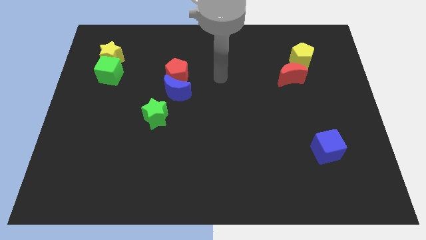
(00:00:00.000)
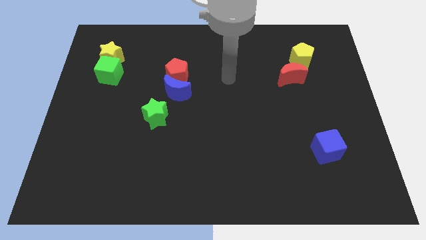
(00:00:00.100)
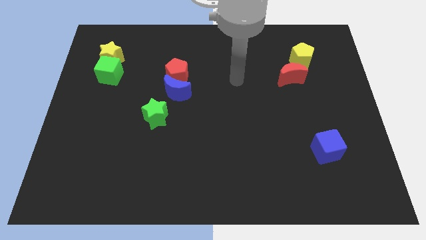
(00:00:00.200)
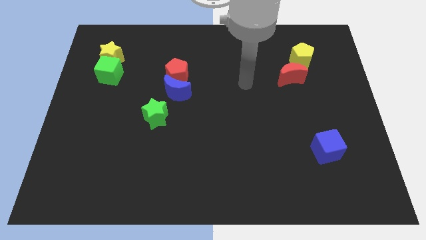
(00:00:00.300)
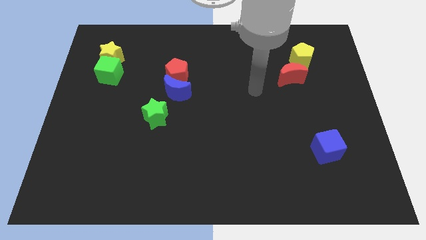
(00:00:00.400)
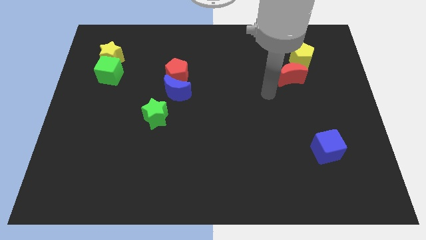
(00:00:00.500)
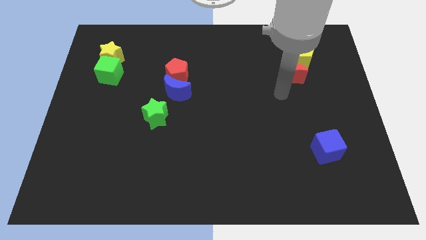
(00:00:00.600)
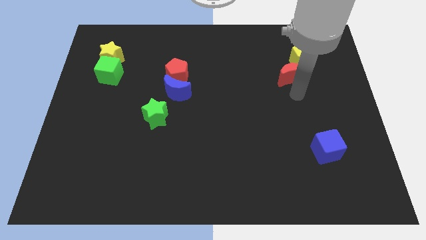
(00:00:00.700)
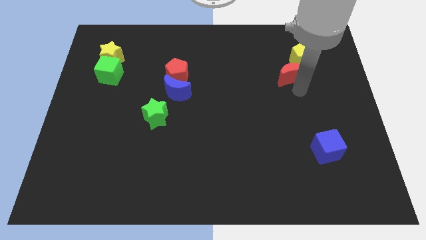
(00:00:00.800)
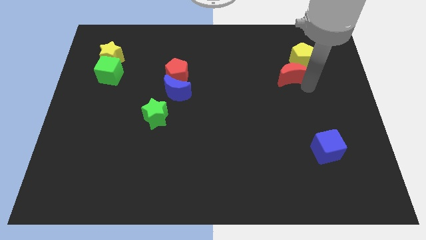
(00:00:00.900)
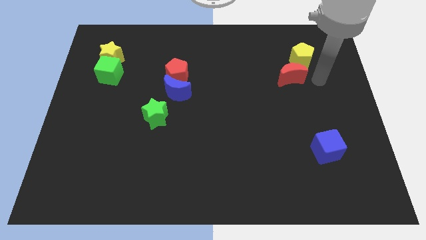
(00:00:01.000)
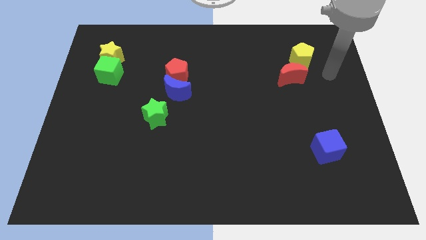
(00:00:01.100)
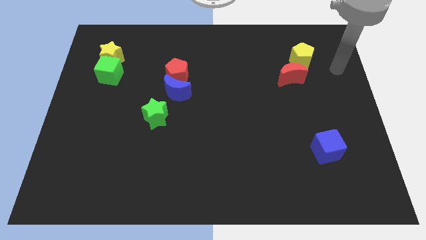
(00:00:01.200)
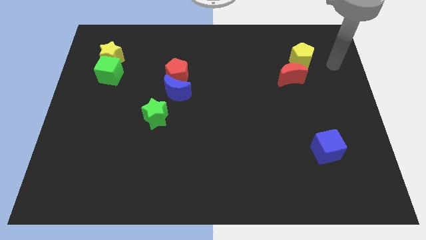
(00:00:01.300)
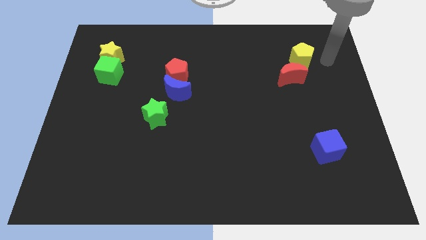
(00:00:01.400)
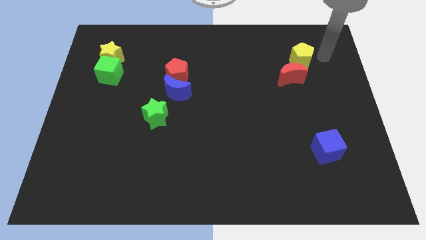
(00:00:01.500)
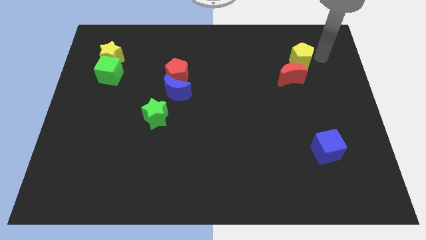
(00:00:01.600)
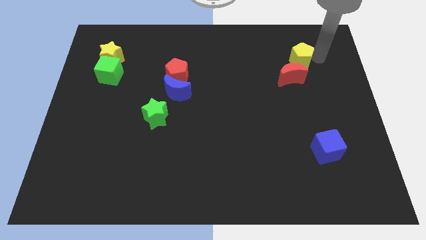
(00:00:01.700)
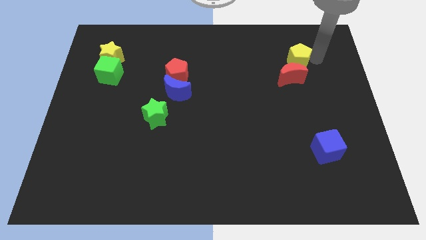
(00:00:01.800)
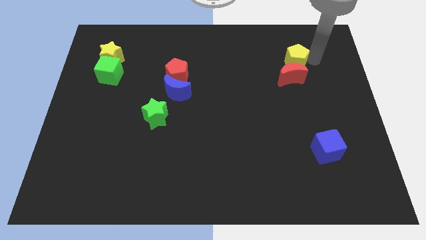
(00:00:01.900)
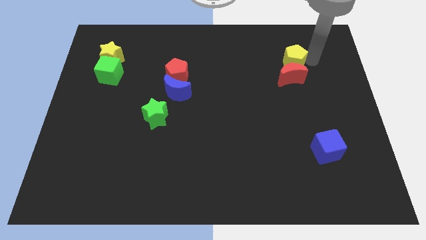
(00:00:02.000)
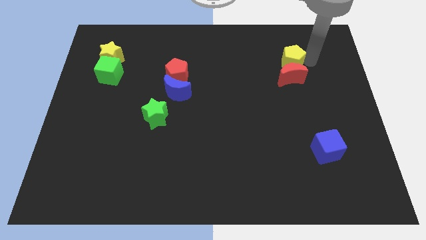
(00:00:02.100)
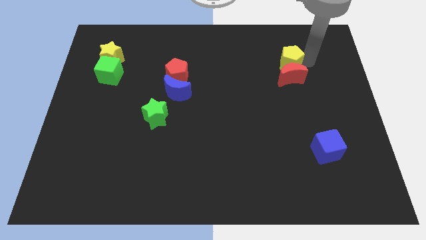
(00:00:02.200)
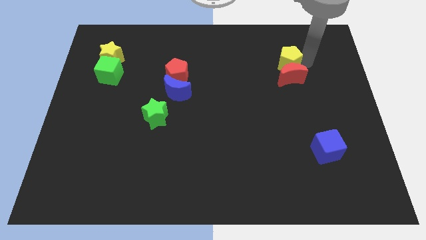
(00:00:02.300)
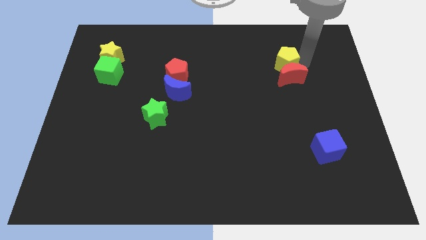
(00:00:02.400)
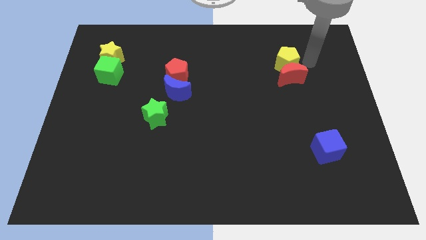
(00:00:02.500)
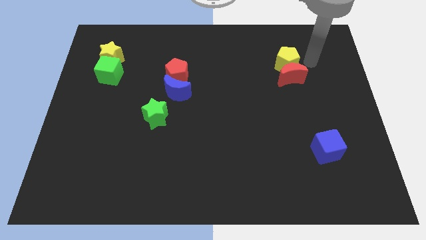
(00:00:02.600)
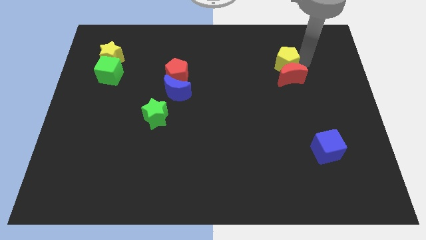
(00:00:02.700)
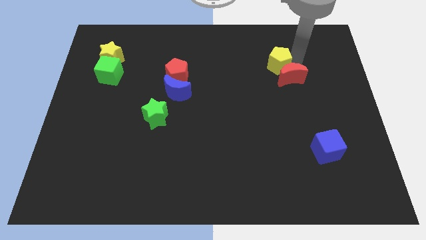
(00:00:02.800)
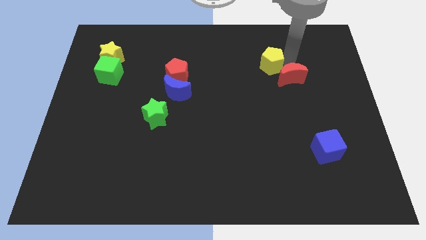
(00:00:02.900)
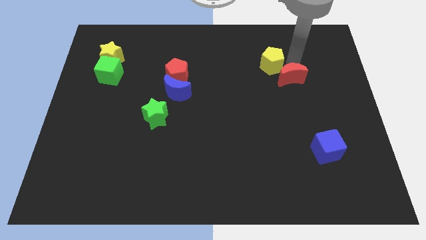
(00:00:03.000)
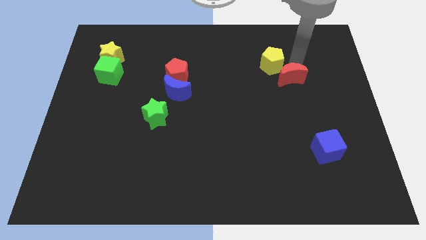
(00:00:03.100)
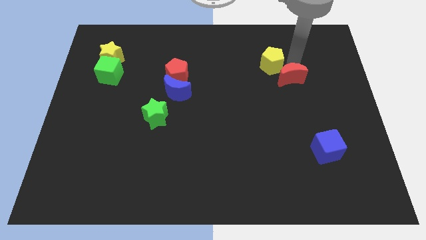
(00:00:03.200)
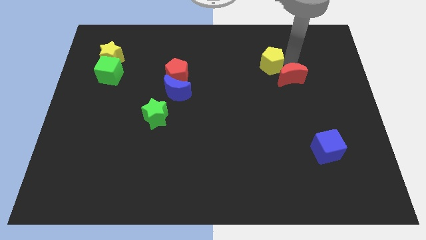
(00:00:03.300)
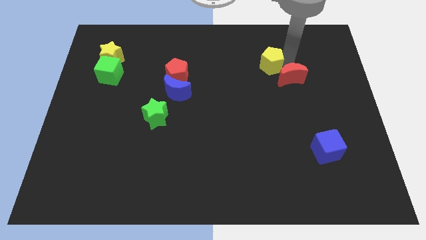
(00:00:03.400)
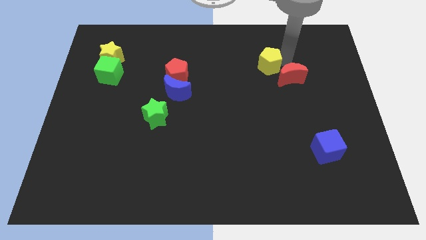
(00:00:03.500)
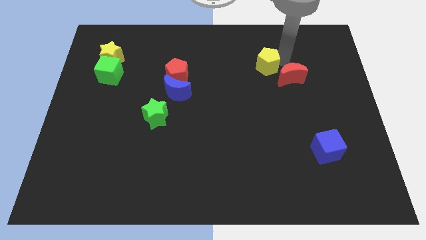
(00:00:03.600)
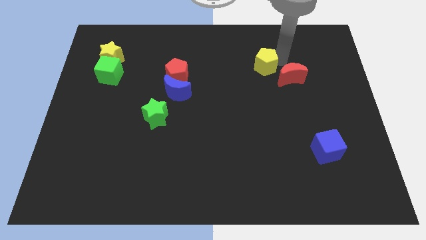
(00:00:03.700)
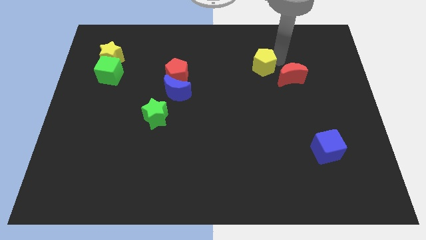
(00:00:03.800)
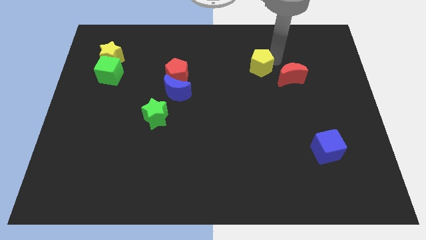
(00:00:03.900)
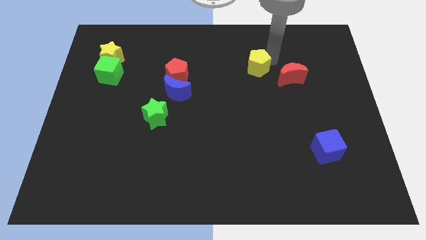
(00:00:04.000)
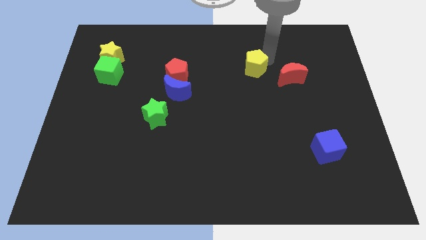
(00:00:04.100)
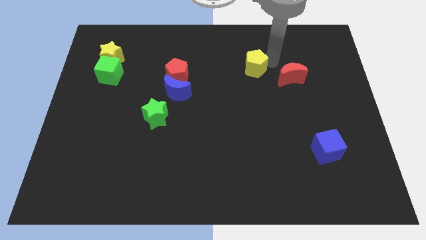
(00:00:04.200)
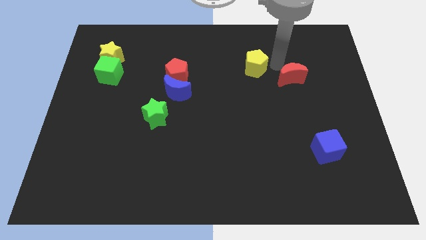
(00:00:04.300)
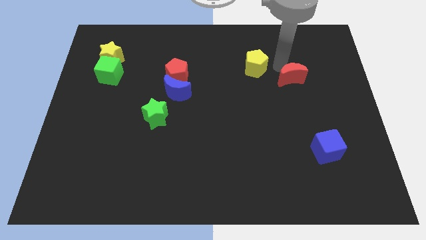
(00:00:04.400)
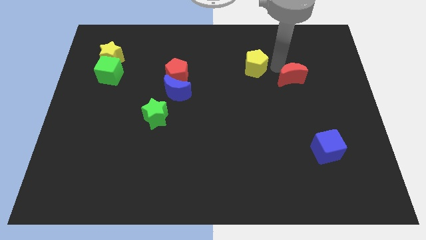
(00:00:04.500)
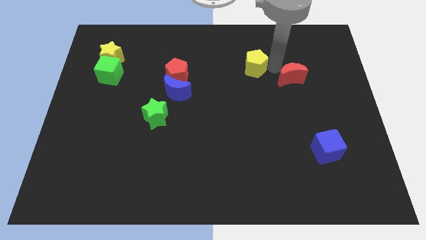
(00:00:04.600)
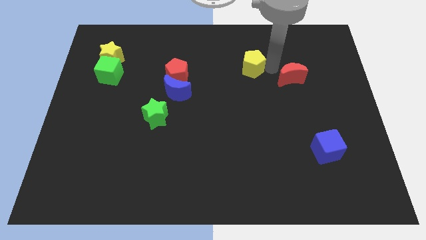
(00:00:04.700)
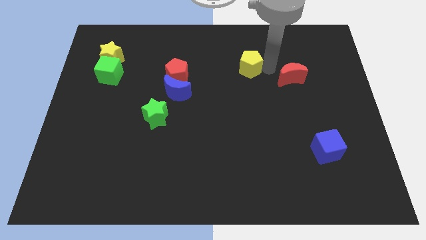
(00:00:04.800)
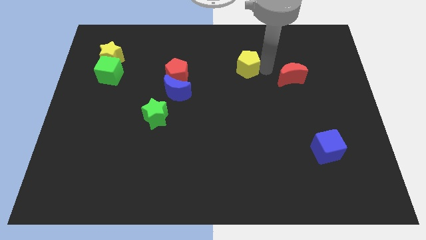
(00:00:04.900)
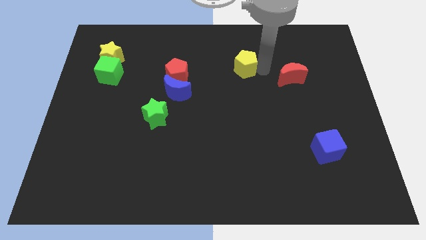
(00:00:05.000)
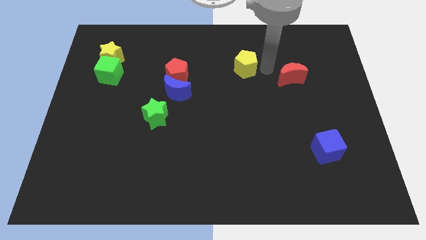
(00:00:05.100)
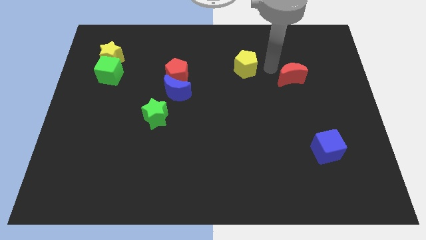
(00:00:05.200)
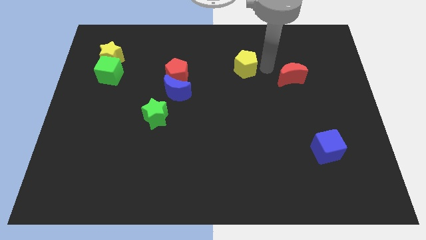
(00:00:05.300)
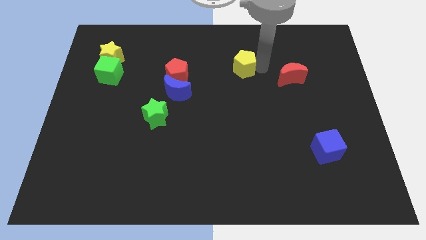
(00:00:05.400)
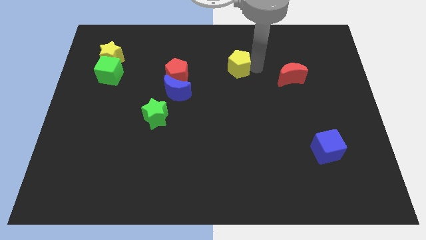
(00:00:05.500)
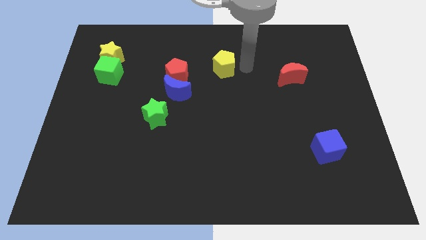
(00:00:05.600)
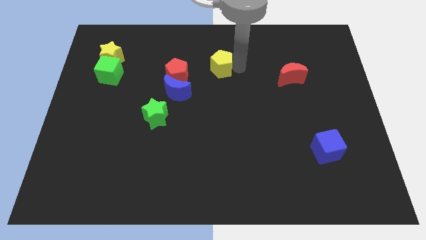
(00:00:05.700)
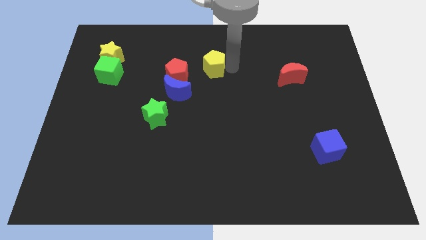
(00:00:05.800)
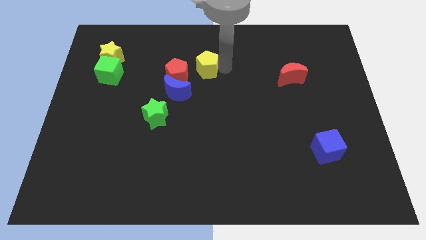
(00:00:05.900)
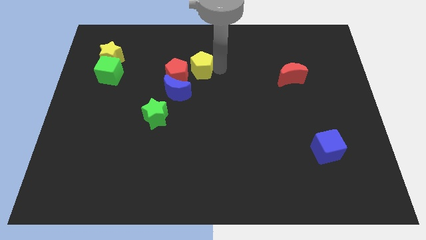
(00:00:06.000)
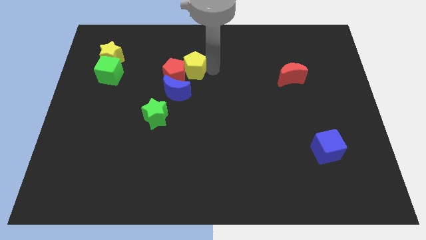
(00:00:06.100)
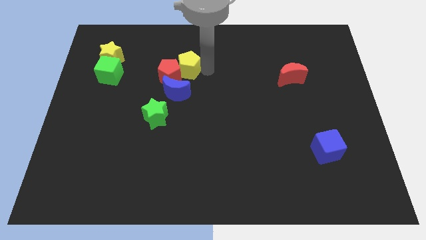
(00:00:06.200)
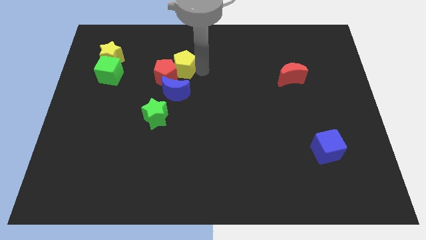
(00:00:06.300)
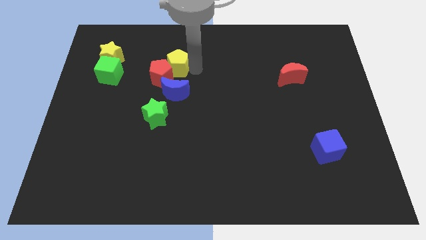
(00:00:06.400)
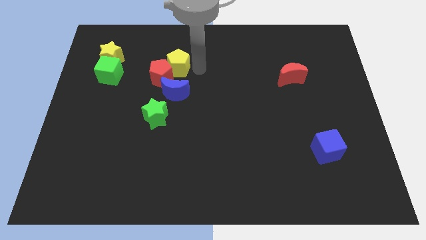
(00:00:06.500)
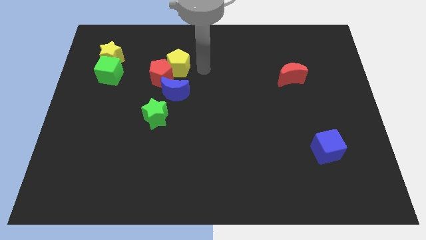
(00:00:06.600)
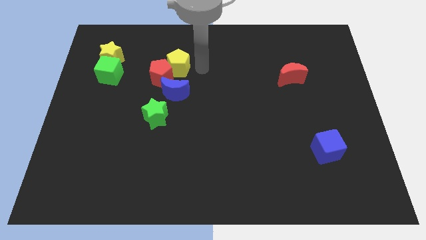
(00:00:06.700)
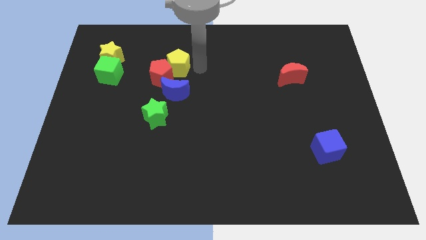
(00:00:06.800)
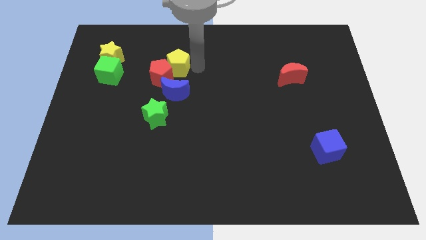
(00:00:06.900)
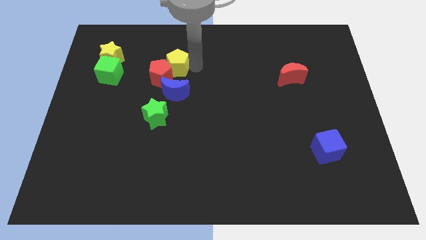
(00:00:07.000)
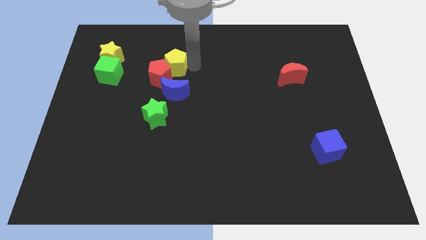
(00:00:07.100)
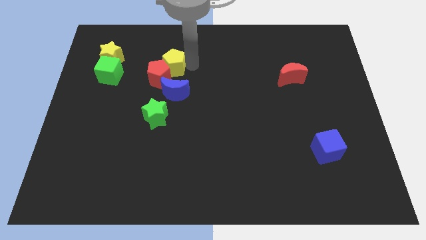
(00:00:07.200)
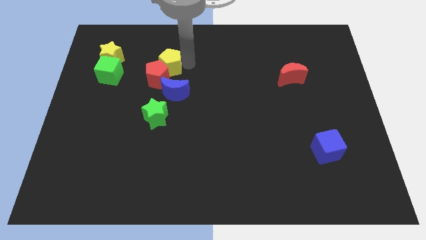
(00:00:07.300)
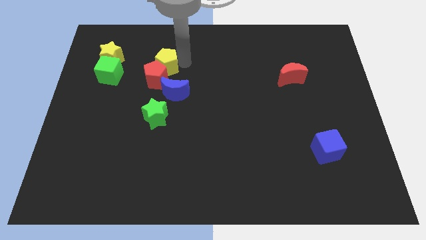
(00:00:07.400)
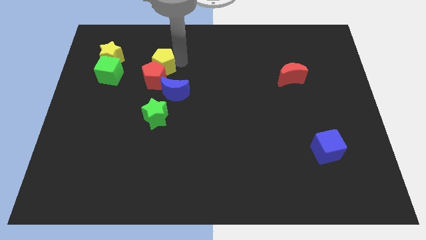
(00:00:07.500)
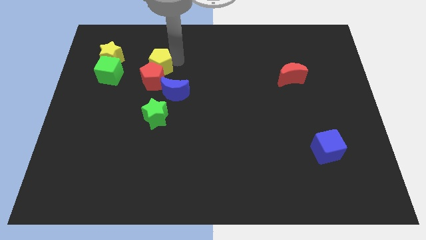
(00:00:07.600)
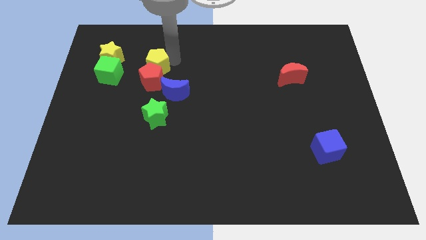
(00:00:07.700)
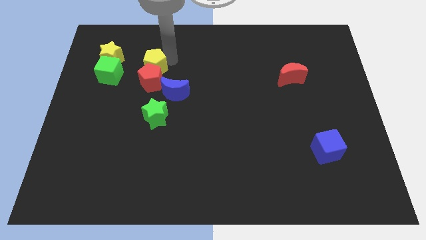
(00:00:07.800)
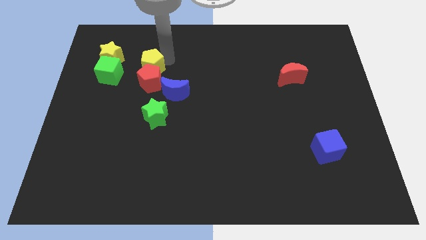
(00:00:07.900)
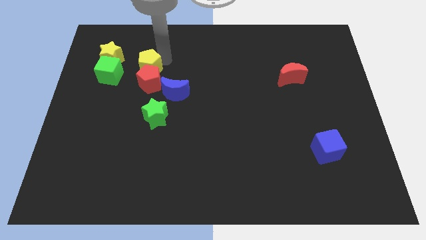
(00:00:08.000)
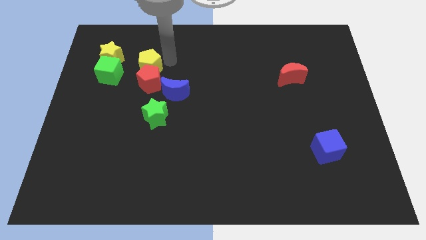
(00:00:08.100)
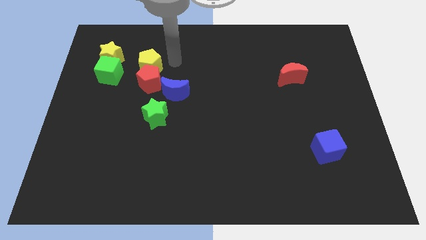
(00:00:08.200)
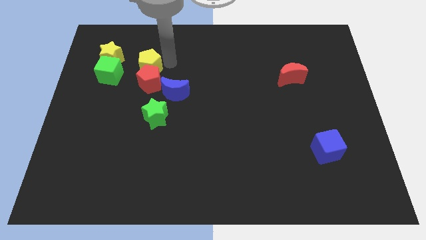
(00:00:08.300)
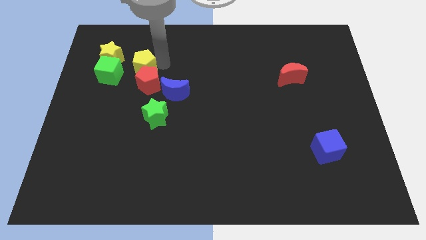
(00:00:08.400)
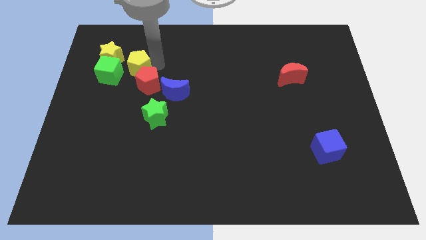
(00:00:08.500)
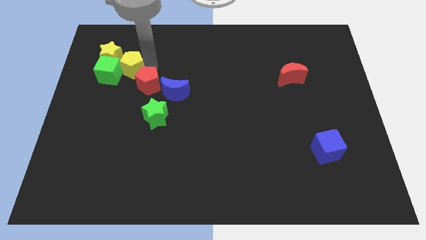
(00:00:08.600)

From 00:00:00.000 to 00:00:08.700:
slide the yellow pentagon next to the green cube
